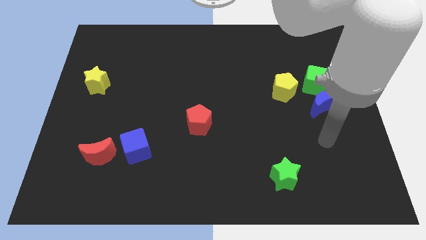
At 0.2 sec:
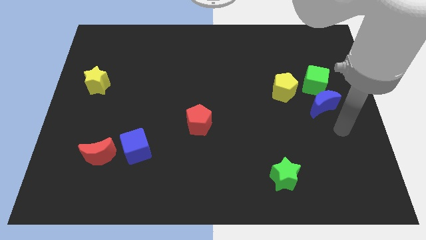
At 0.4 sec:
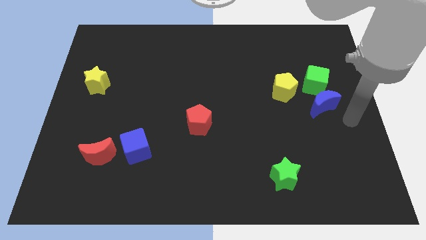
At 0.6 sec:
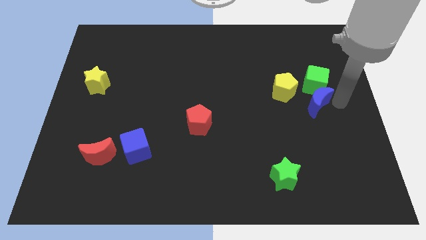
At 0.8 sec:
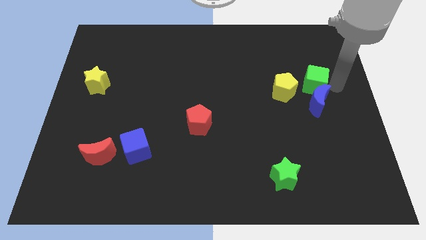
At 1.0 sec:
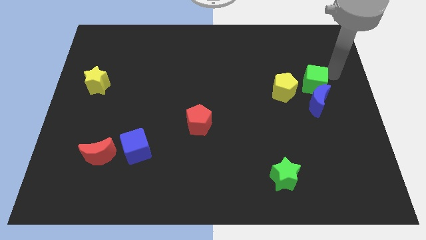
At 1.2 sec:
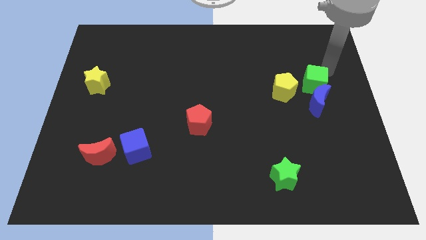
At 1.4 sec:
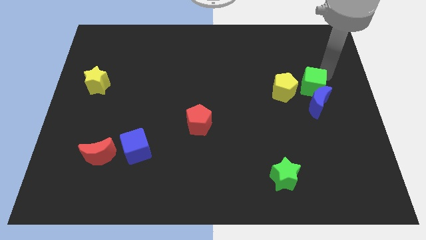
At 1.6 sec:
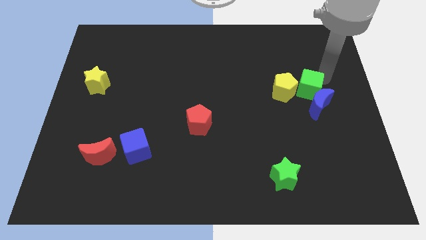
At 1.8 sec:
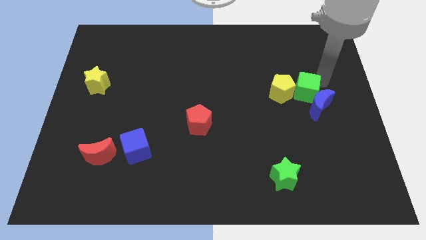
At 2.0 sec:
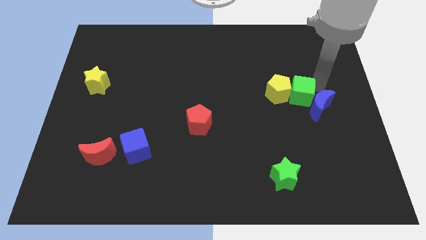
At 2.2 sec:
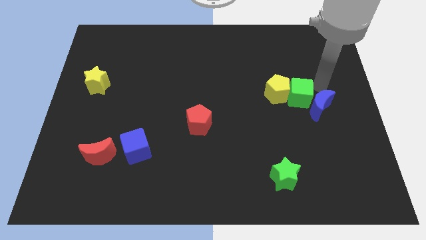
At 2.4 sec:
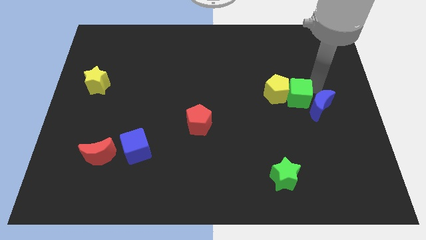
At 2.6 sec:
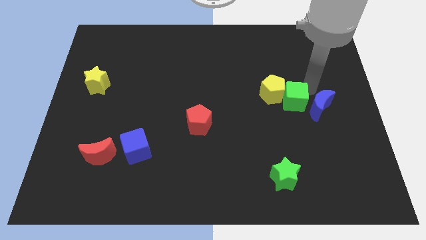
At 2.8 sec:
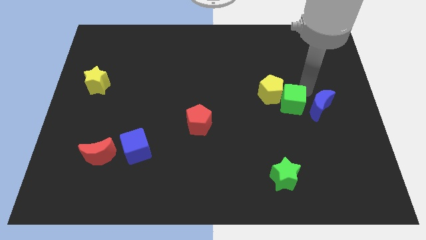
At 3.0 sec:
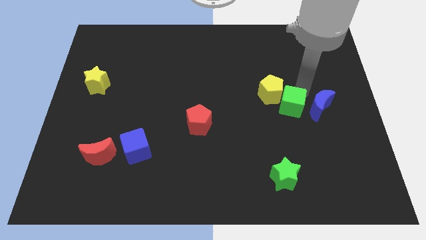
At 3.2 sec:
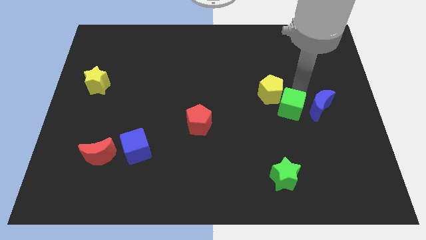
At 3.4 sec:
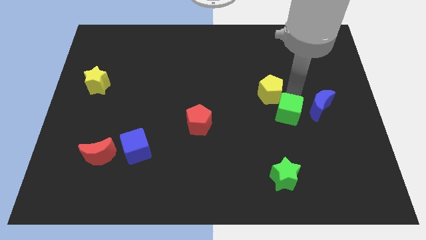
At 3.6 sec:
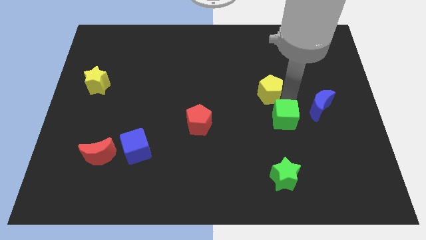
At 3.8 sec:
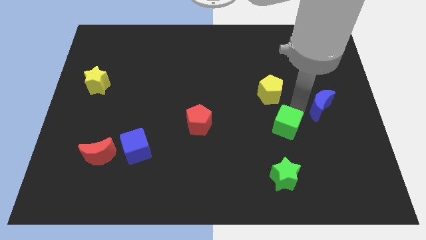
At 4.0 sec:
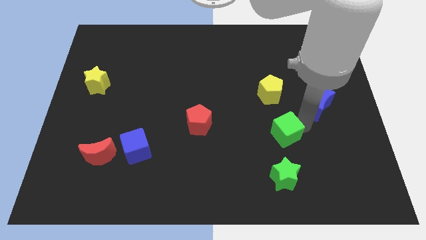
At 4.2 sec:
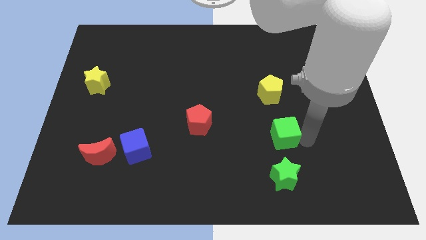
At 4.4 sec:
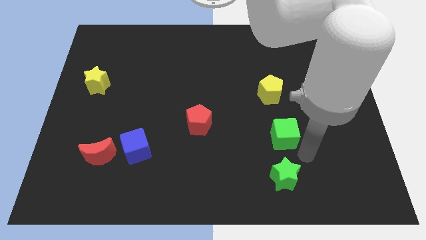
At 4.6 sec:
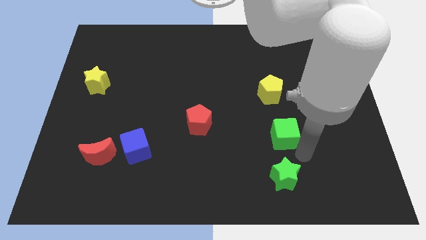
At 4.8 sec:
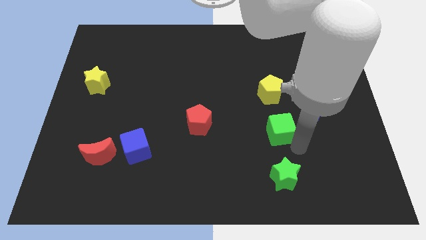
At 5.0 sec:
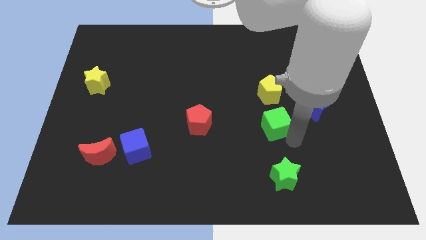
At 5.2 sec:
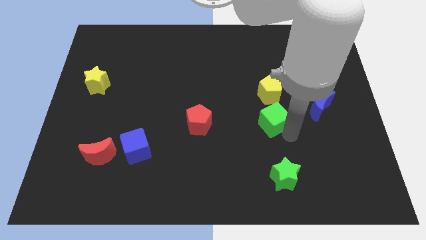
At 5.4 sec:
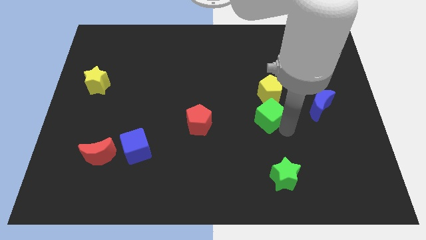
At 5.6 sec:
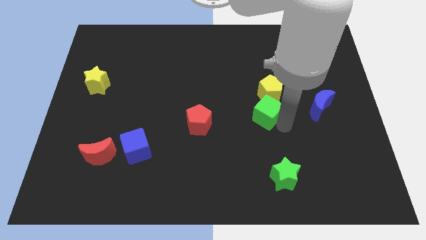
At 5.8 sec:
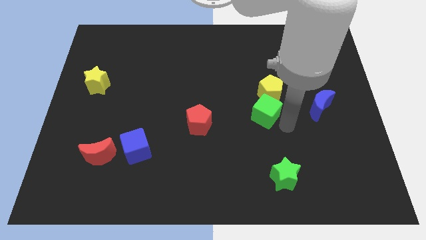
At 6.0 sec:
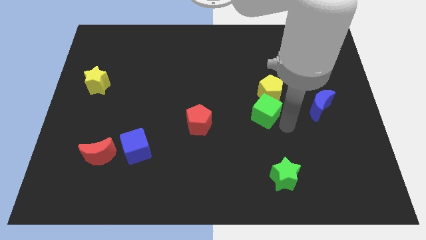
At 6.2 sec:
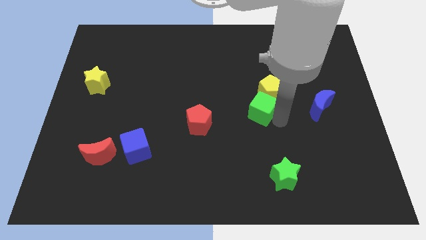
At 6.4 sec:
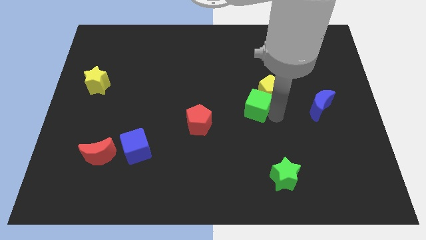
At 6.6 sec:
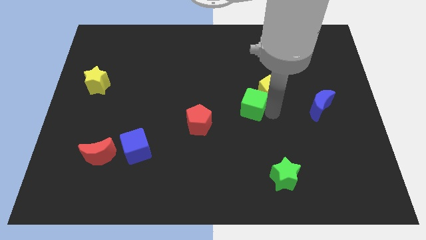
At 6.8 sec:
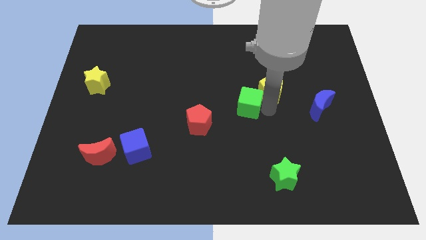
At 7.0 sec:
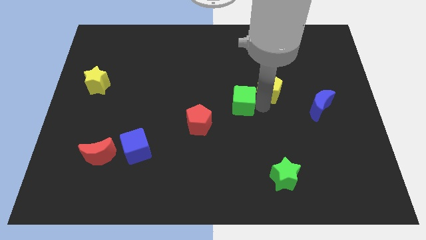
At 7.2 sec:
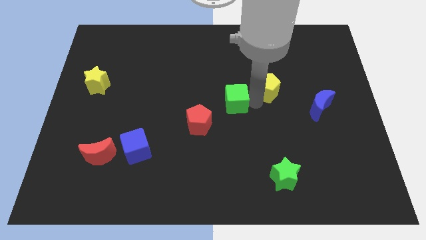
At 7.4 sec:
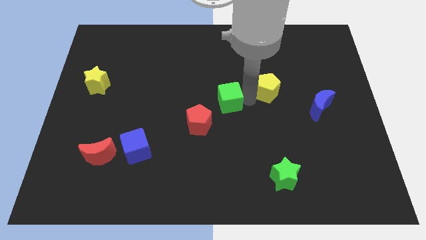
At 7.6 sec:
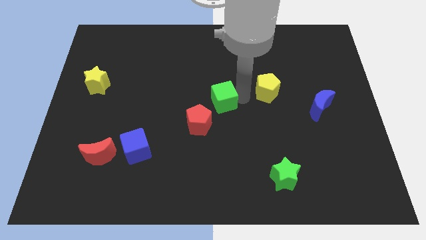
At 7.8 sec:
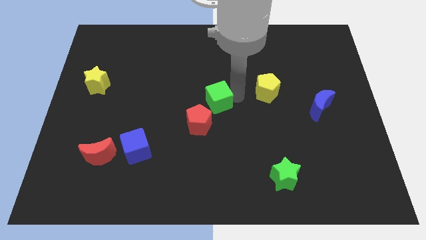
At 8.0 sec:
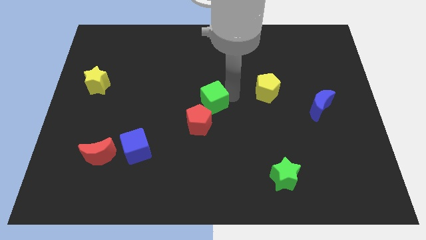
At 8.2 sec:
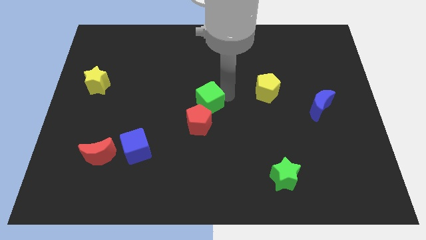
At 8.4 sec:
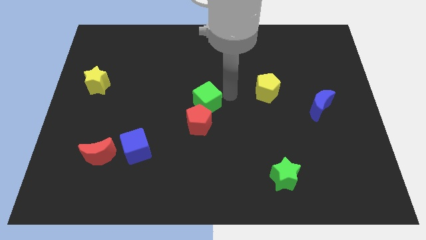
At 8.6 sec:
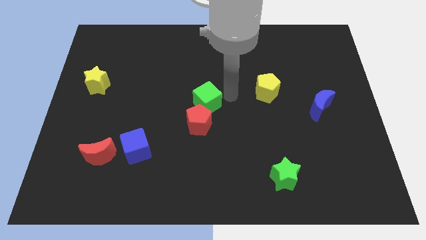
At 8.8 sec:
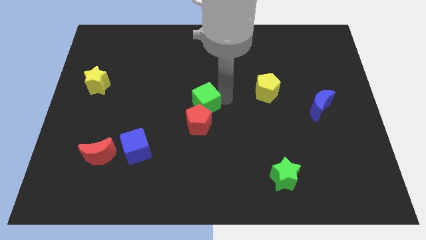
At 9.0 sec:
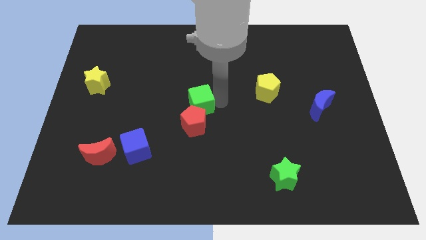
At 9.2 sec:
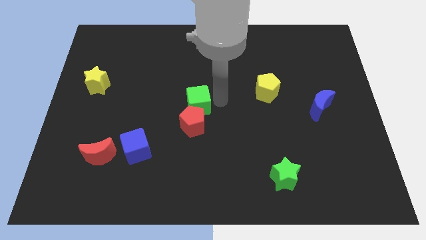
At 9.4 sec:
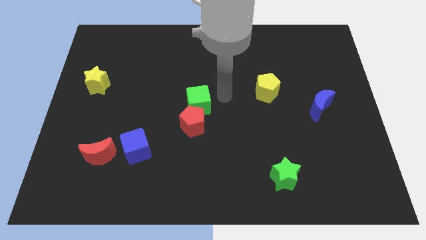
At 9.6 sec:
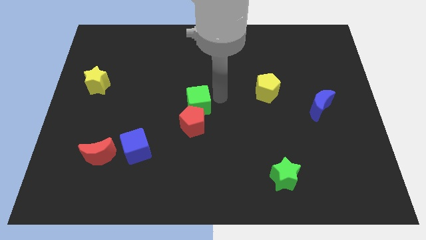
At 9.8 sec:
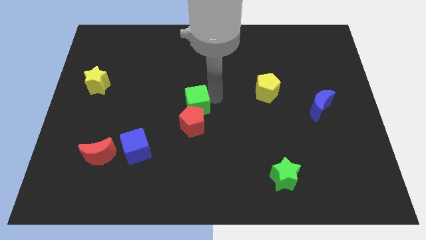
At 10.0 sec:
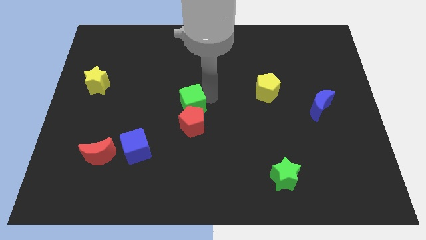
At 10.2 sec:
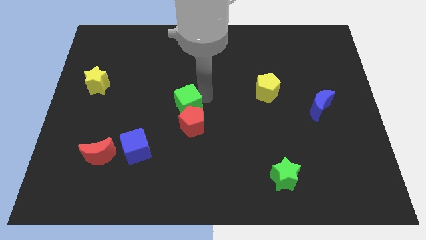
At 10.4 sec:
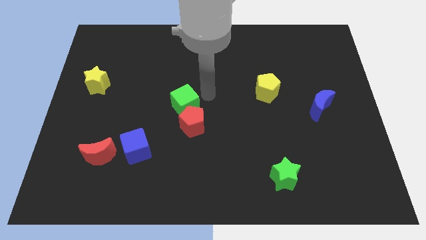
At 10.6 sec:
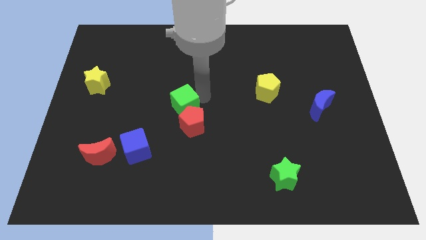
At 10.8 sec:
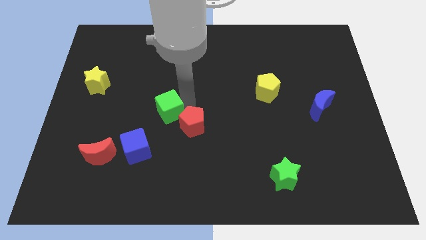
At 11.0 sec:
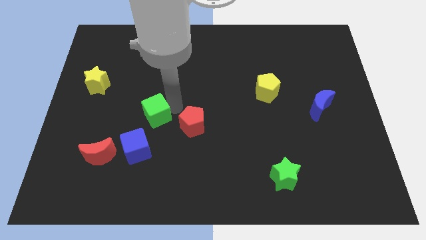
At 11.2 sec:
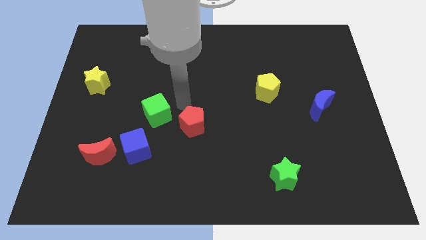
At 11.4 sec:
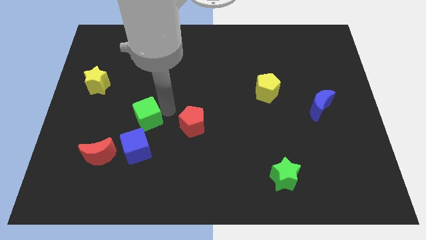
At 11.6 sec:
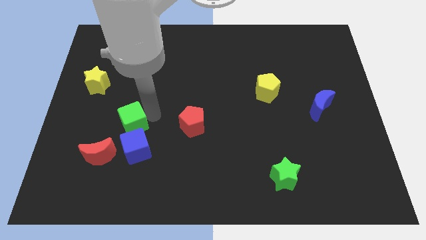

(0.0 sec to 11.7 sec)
slide the green cube to the top left of the blue cube
